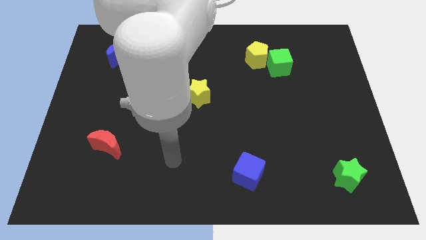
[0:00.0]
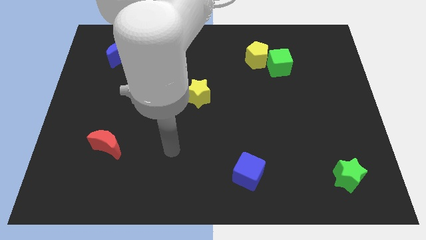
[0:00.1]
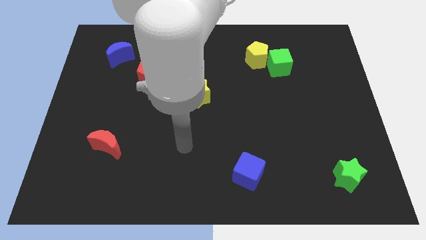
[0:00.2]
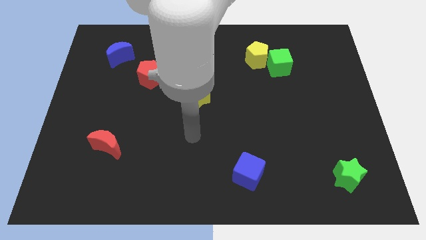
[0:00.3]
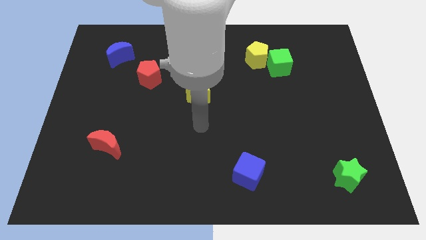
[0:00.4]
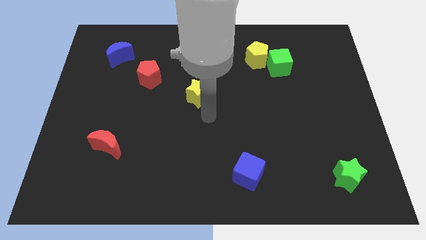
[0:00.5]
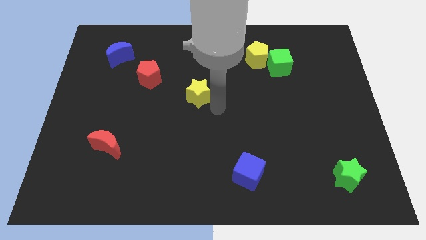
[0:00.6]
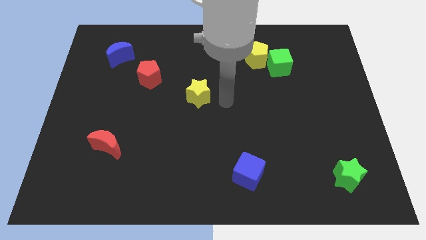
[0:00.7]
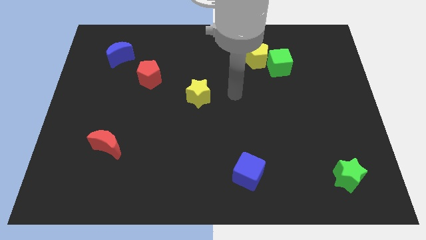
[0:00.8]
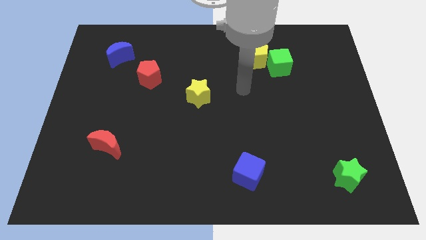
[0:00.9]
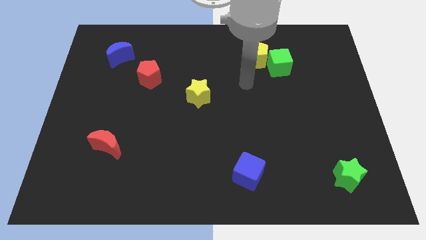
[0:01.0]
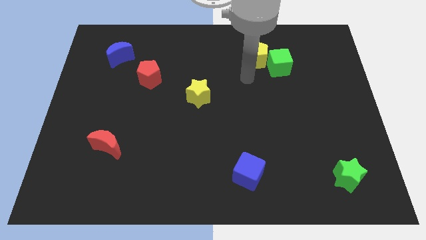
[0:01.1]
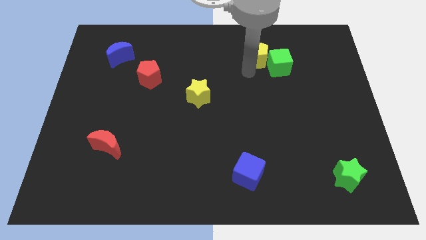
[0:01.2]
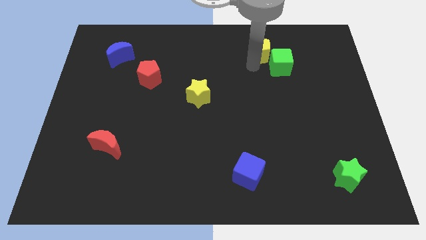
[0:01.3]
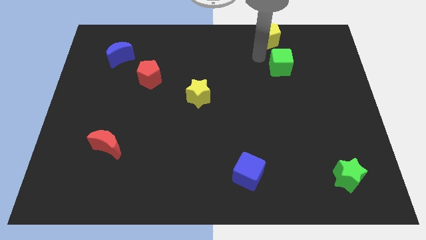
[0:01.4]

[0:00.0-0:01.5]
move the green cube away from the yellow pentagon

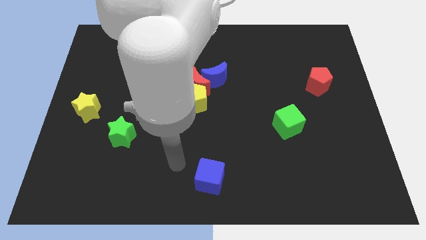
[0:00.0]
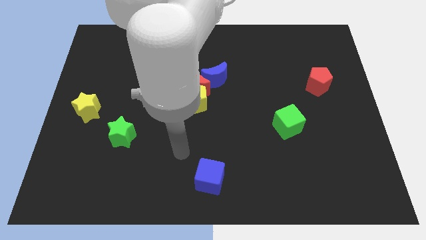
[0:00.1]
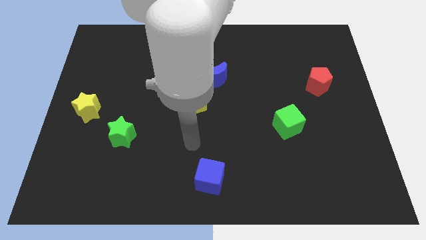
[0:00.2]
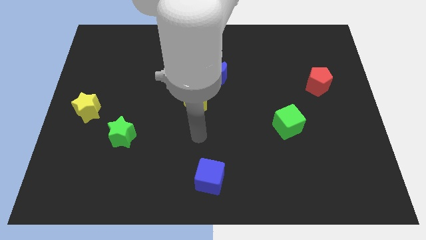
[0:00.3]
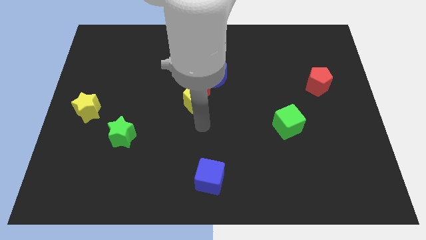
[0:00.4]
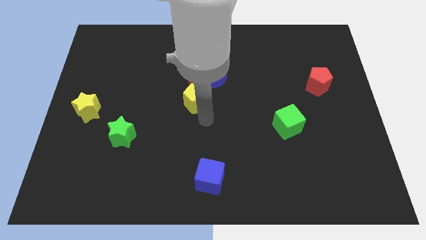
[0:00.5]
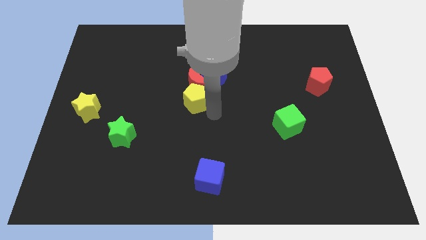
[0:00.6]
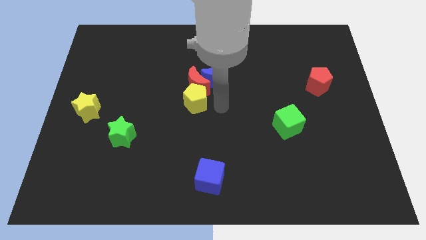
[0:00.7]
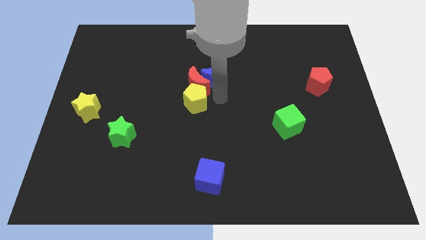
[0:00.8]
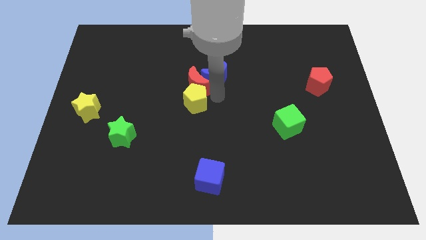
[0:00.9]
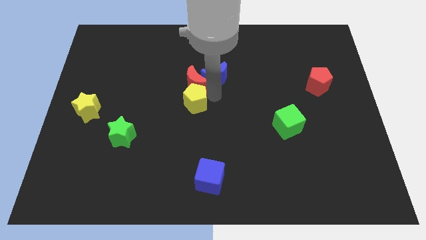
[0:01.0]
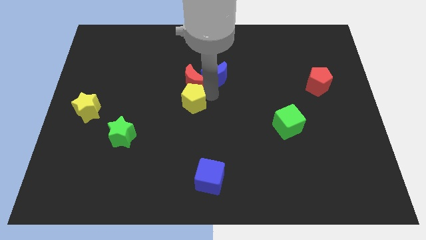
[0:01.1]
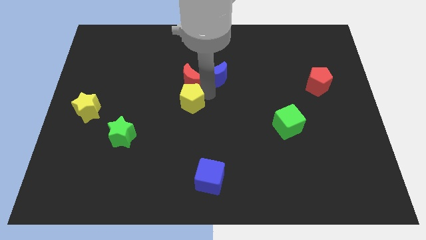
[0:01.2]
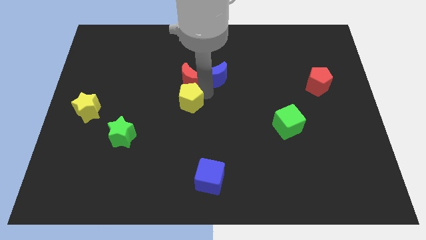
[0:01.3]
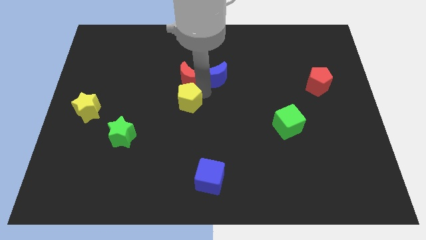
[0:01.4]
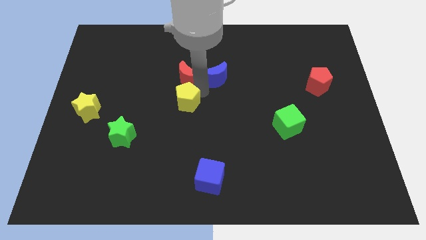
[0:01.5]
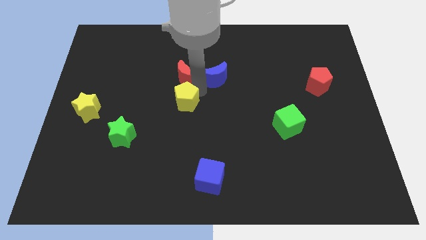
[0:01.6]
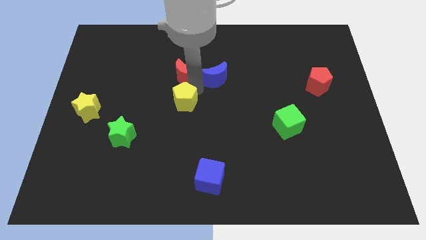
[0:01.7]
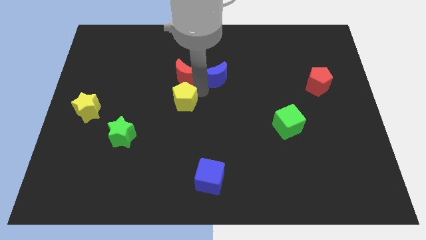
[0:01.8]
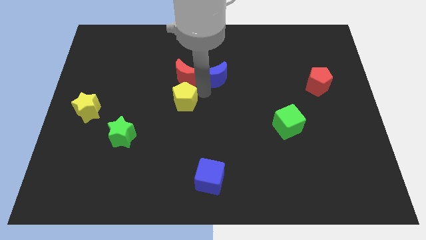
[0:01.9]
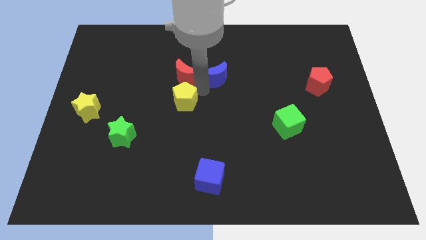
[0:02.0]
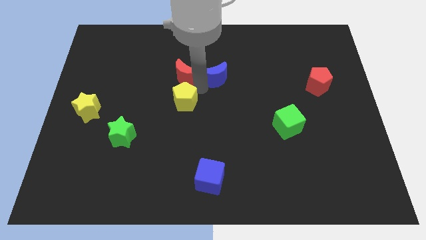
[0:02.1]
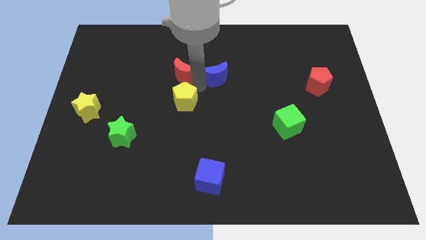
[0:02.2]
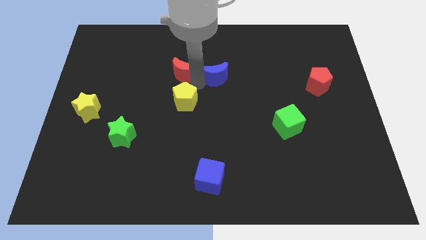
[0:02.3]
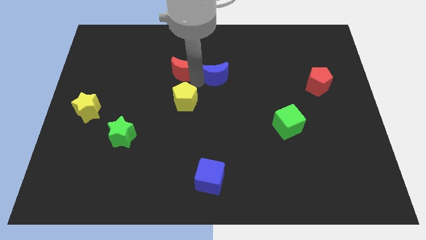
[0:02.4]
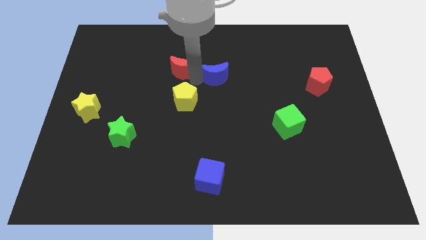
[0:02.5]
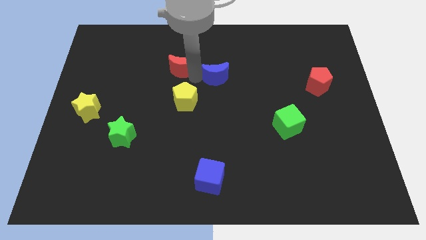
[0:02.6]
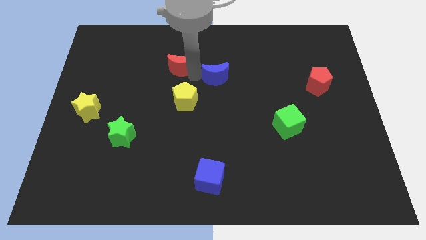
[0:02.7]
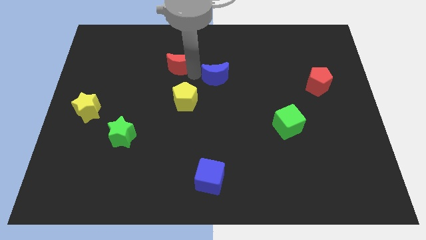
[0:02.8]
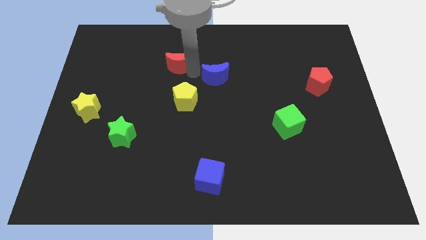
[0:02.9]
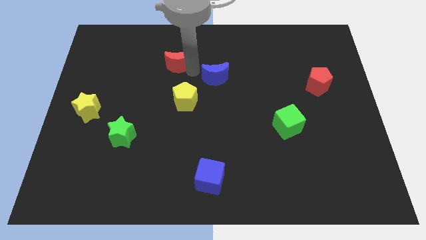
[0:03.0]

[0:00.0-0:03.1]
pull the red moon apart from the yellow pentagon and blue moon

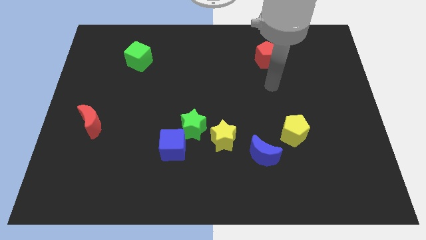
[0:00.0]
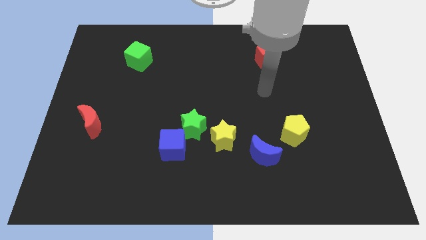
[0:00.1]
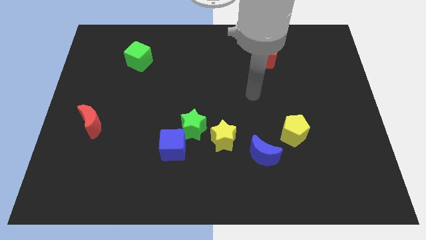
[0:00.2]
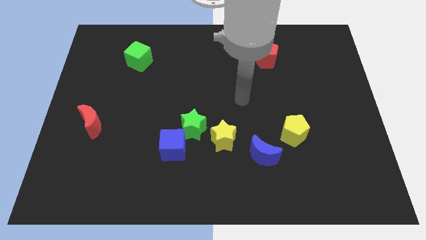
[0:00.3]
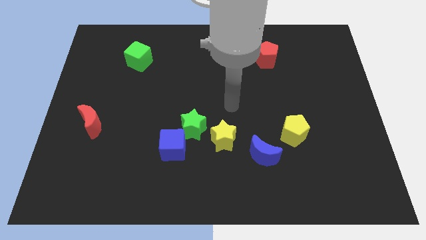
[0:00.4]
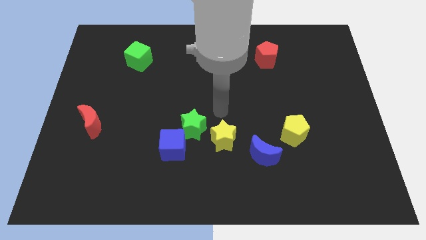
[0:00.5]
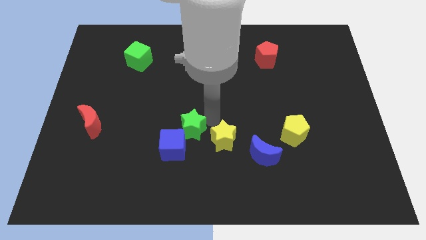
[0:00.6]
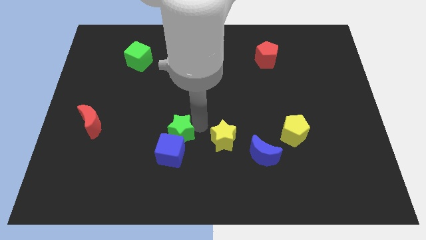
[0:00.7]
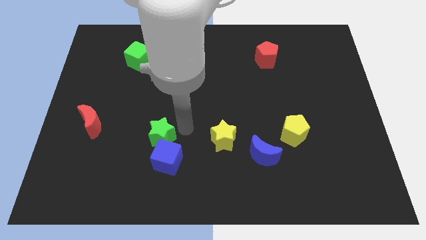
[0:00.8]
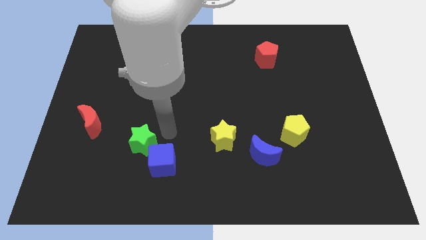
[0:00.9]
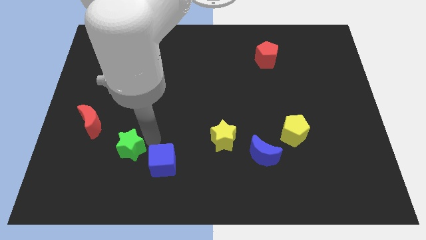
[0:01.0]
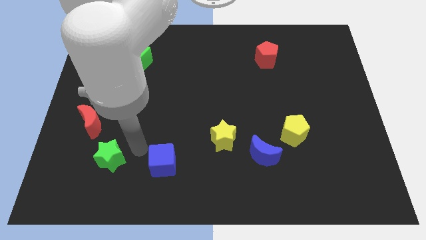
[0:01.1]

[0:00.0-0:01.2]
pull the blue cube apart from the green star

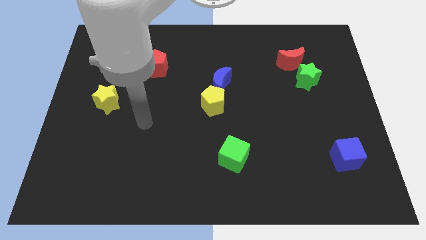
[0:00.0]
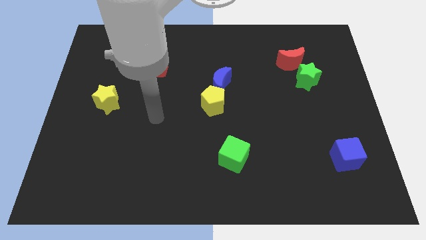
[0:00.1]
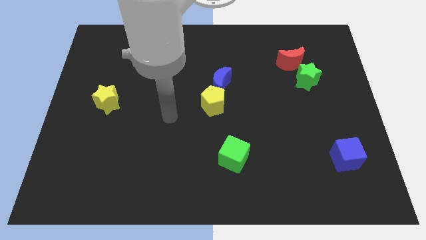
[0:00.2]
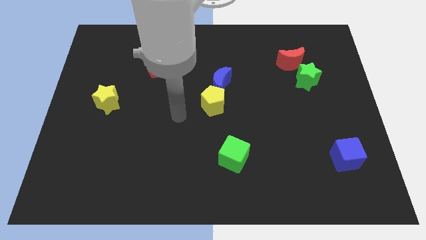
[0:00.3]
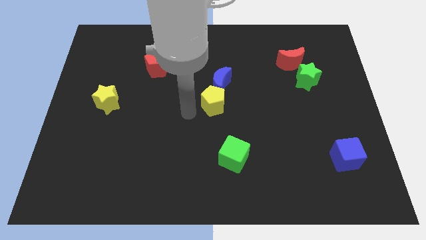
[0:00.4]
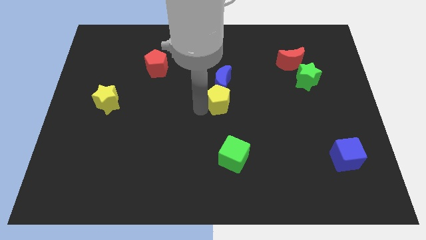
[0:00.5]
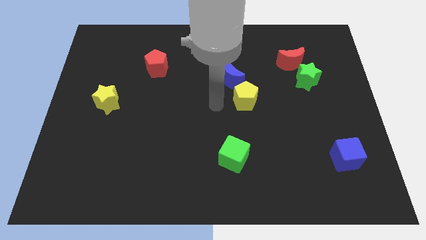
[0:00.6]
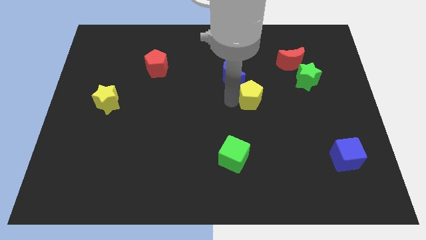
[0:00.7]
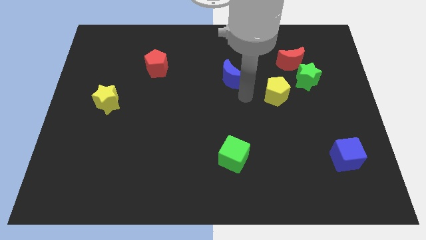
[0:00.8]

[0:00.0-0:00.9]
pull the blue moon apart from the yellow pentagon

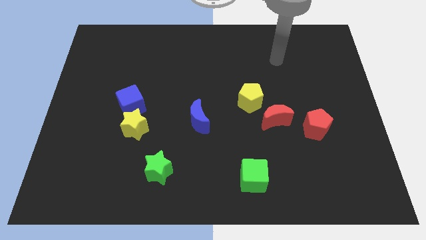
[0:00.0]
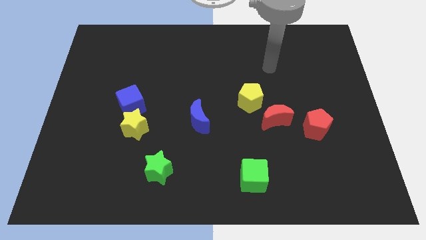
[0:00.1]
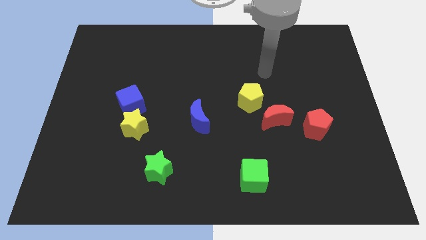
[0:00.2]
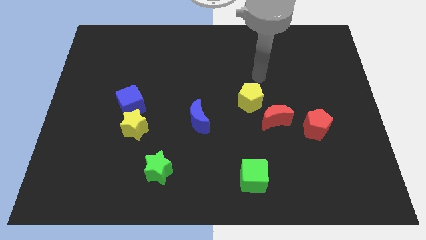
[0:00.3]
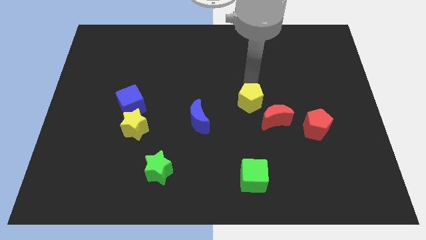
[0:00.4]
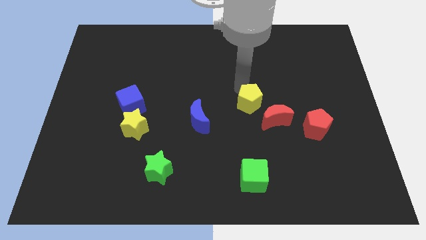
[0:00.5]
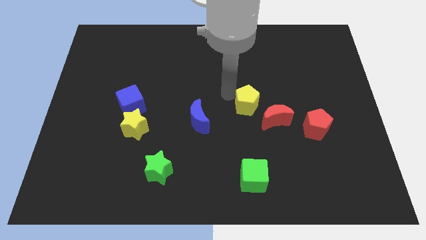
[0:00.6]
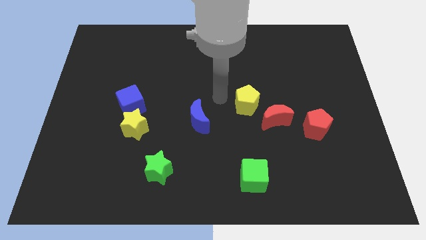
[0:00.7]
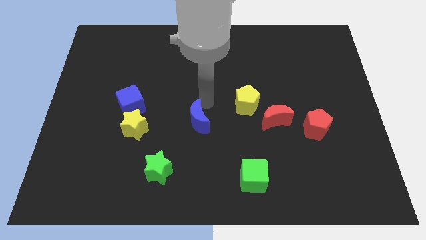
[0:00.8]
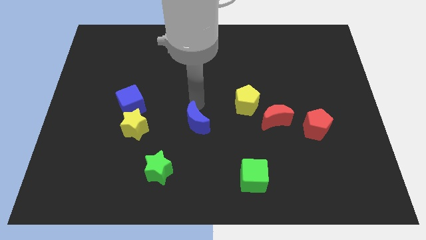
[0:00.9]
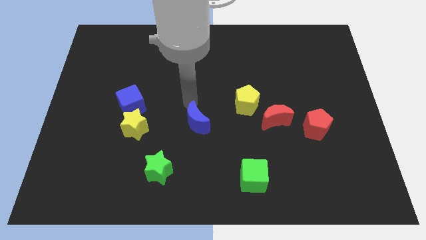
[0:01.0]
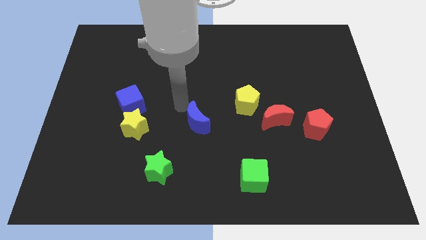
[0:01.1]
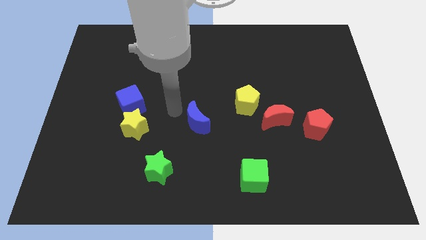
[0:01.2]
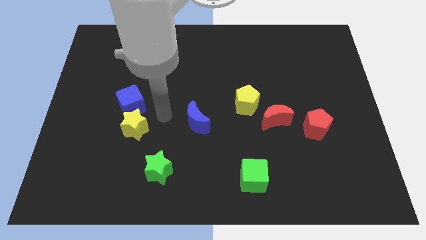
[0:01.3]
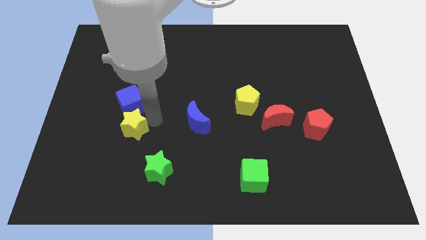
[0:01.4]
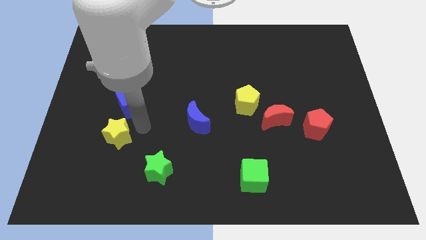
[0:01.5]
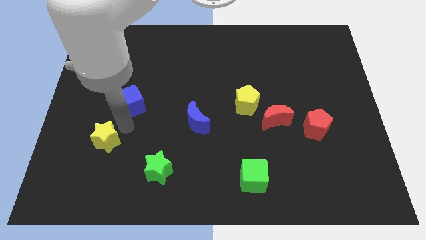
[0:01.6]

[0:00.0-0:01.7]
move the blue cube away from the yellow star

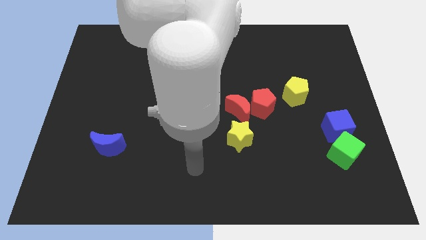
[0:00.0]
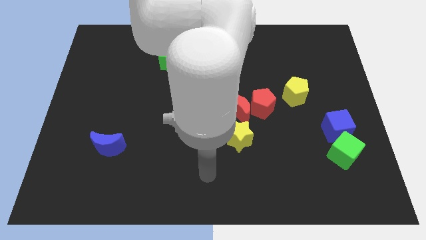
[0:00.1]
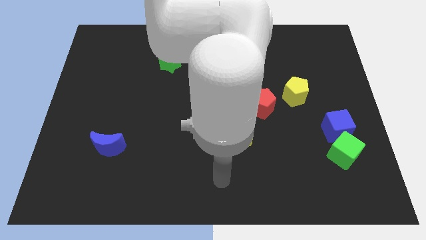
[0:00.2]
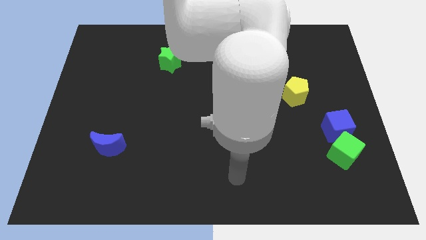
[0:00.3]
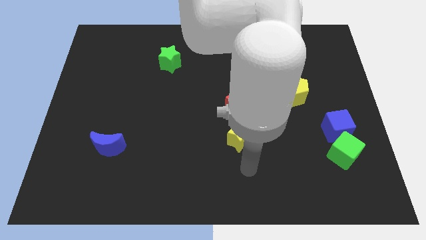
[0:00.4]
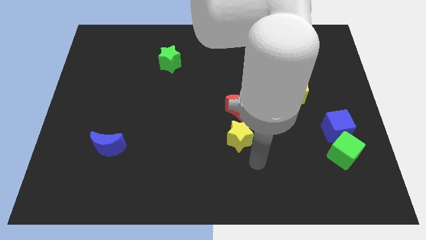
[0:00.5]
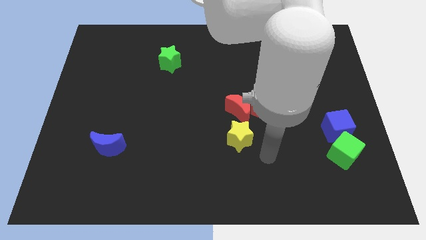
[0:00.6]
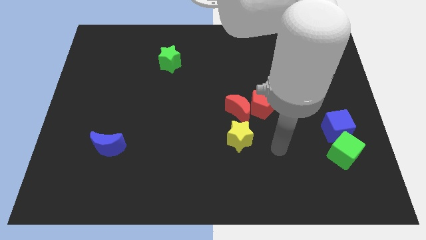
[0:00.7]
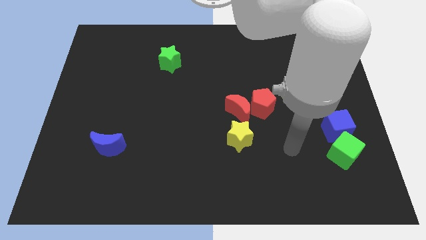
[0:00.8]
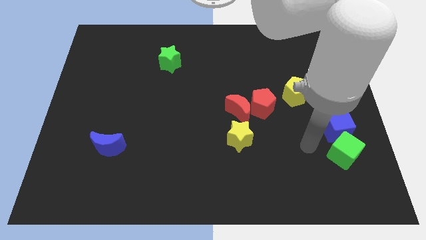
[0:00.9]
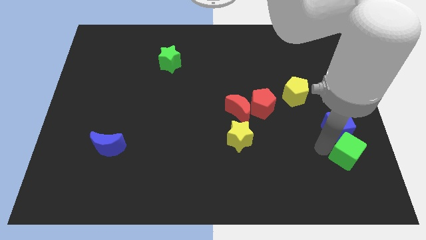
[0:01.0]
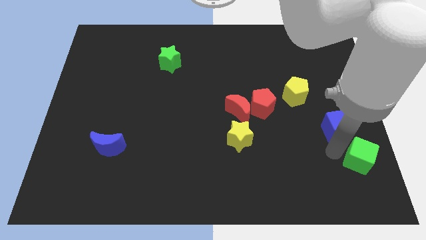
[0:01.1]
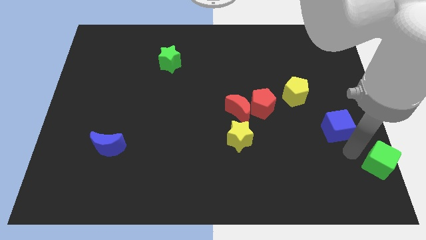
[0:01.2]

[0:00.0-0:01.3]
pull the blue cube apart from the green cube
